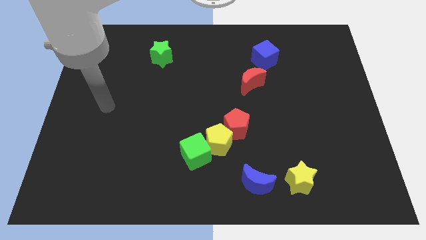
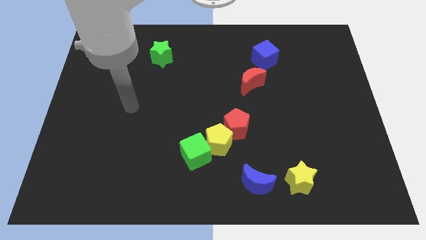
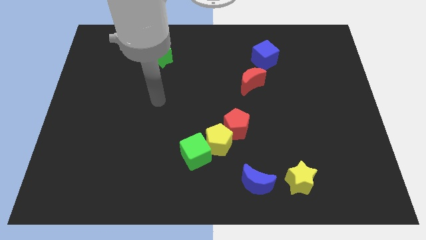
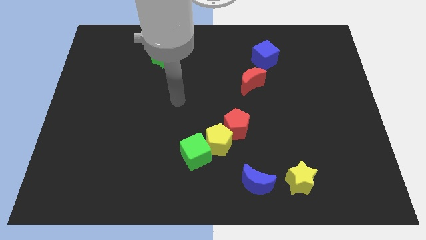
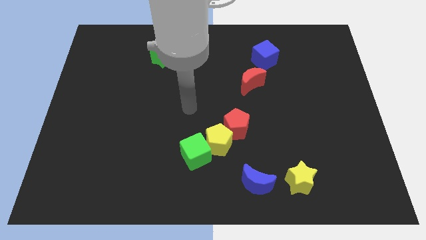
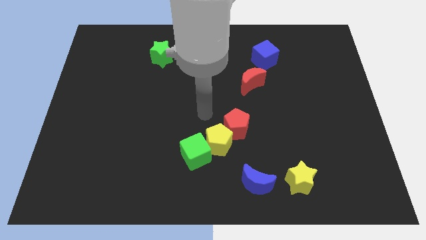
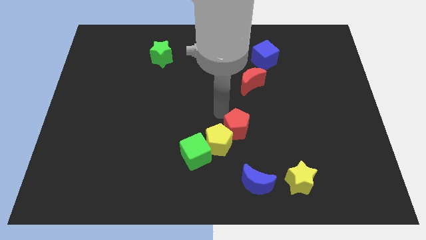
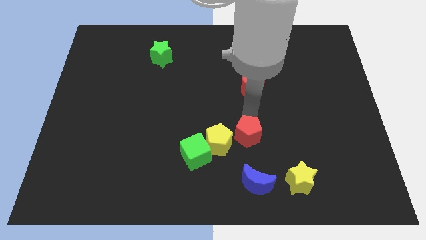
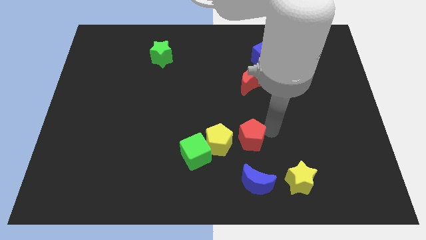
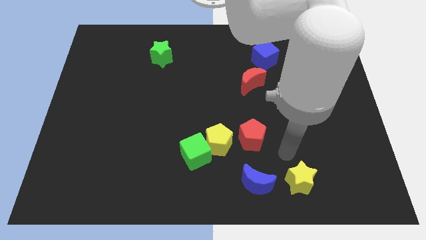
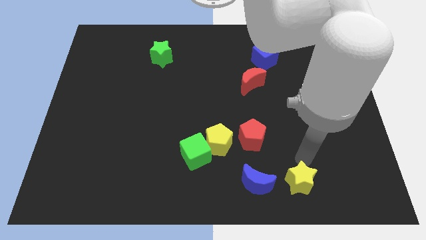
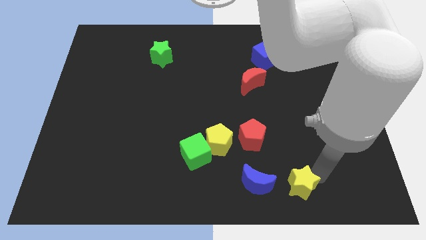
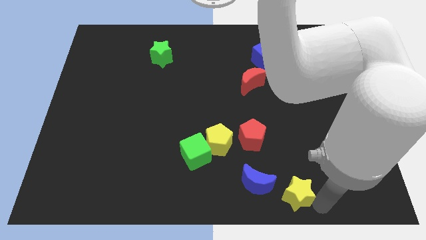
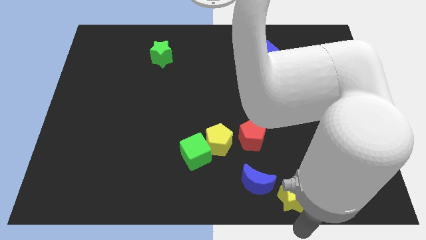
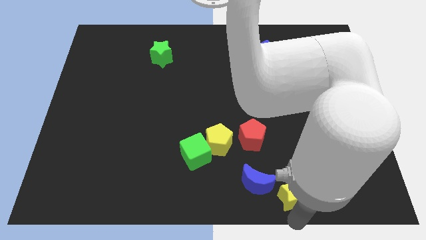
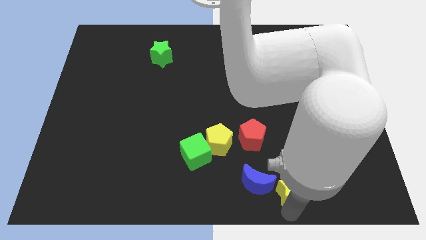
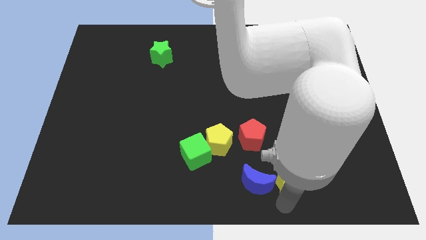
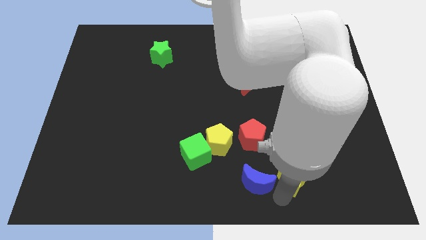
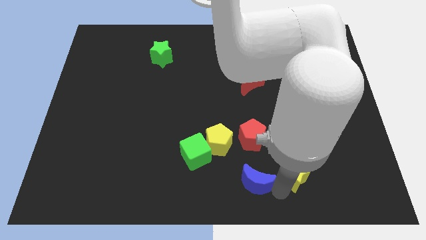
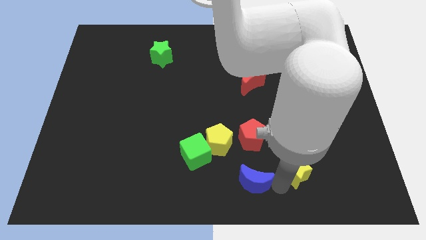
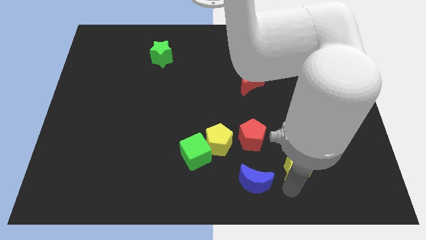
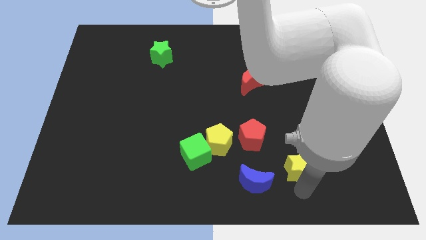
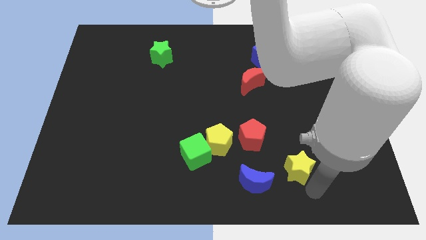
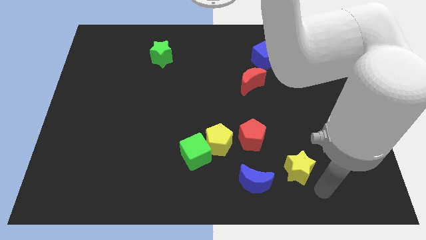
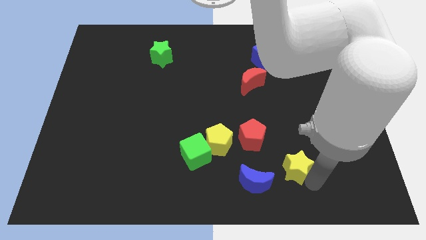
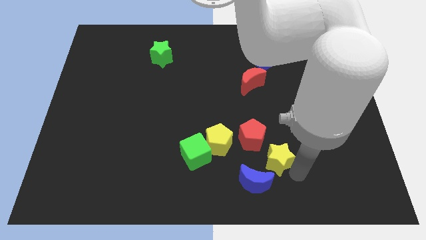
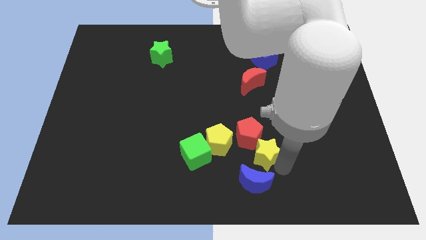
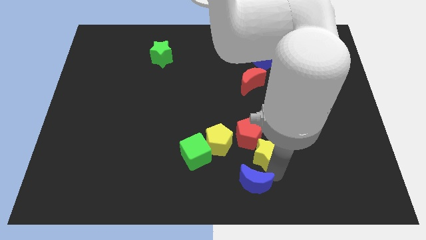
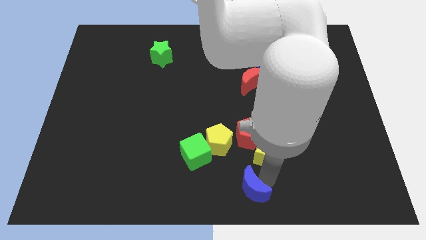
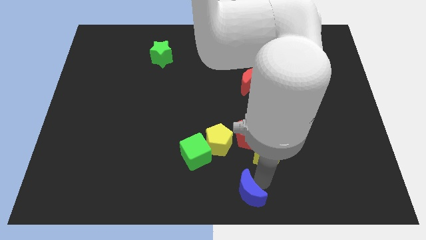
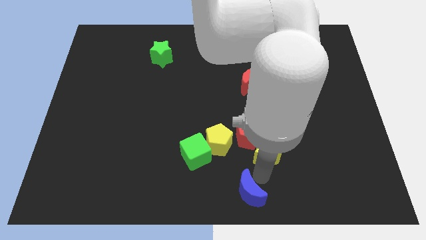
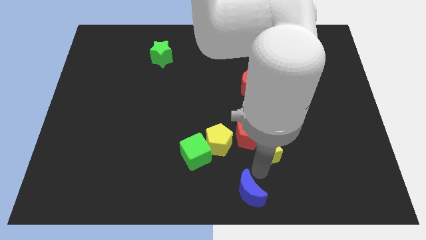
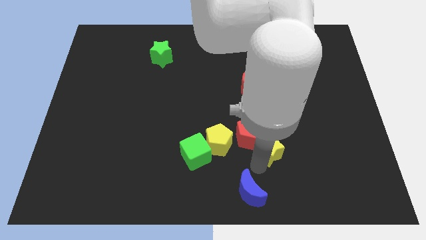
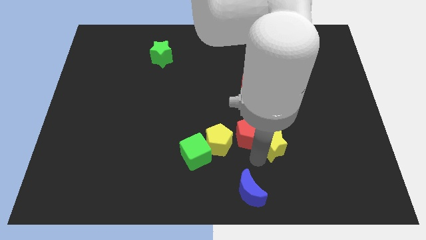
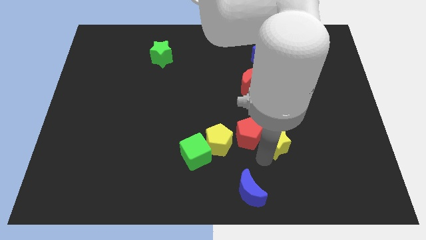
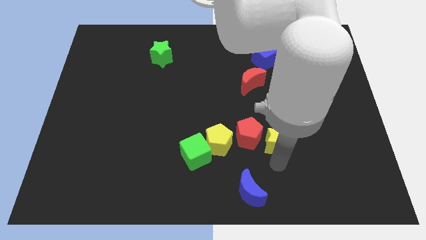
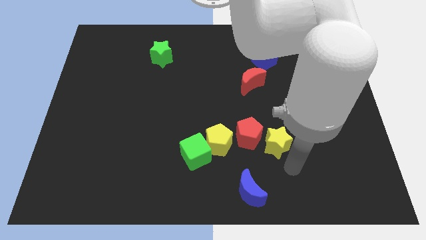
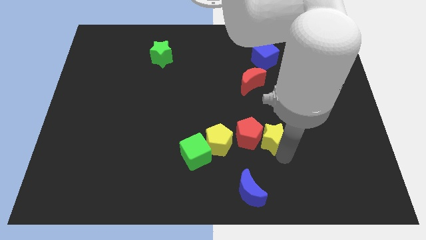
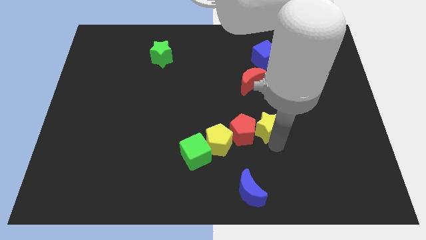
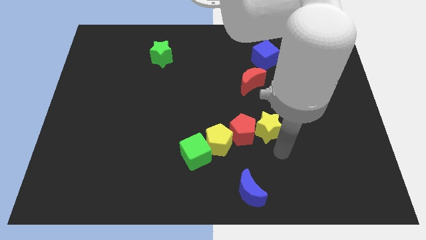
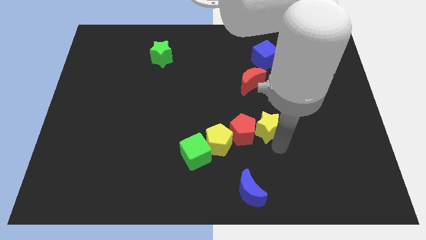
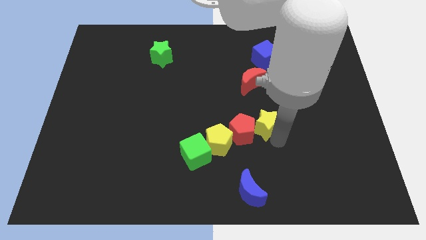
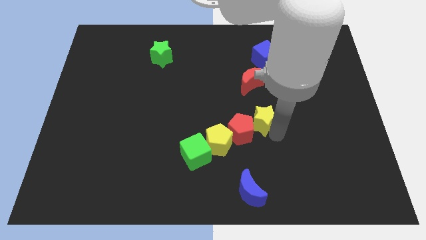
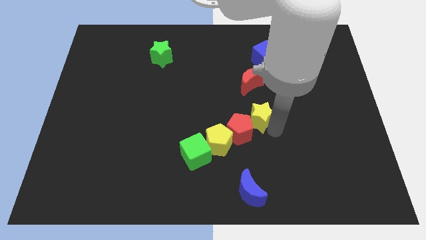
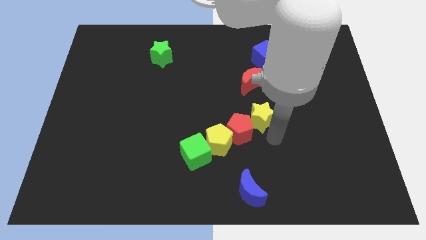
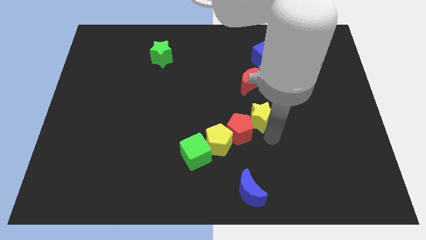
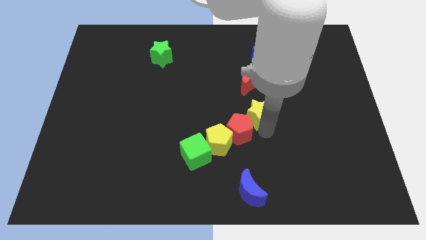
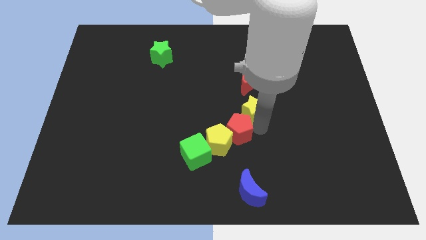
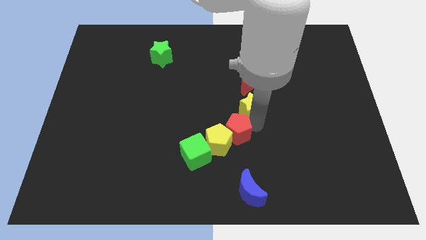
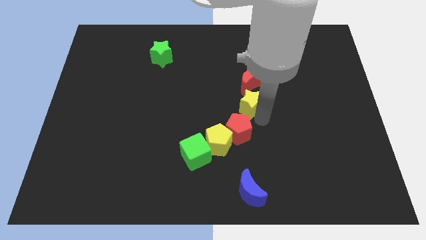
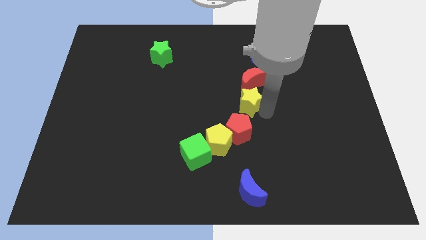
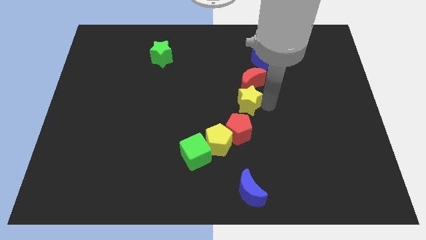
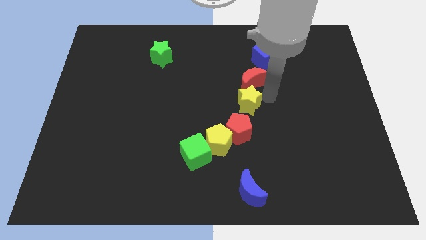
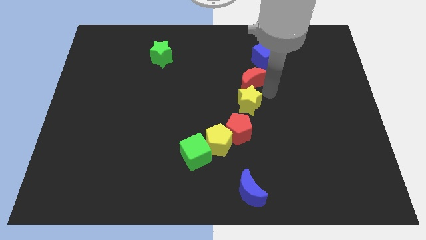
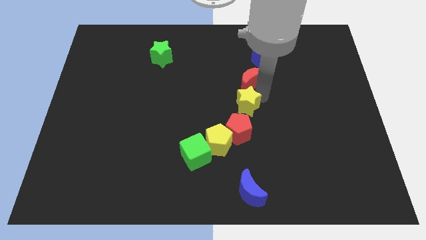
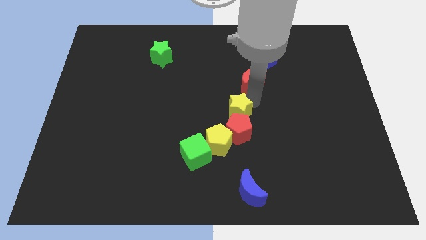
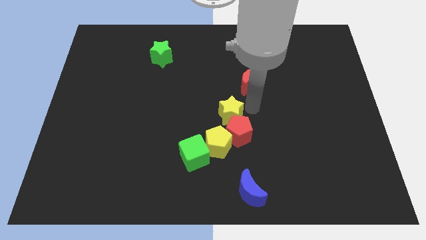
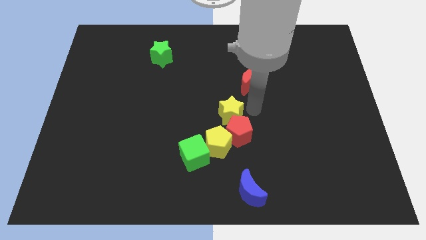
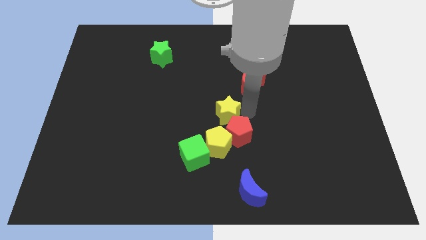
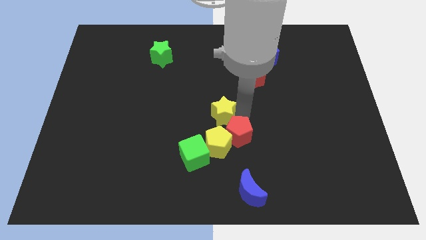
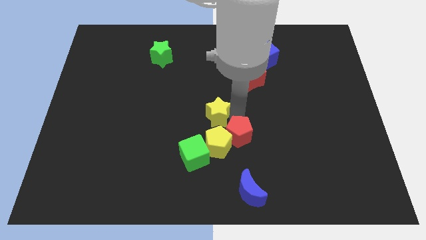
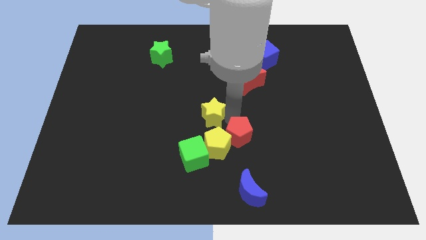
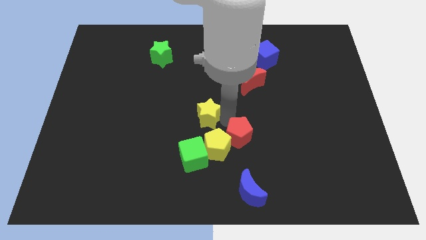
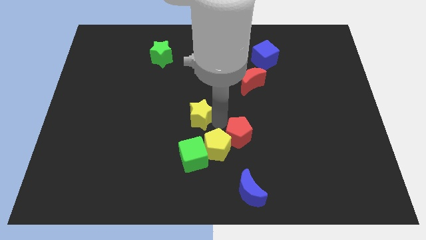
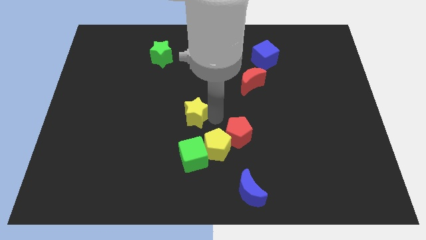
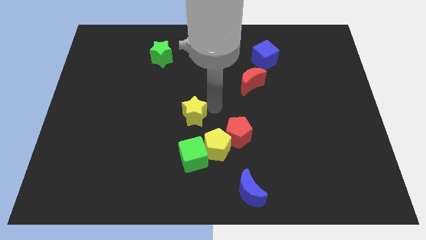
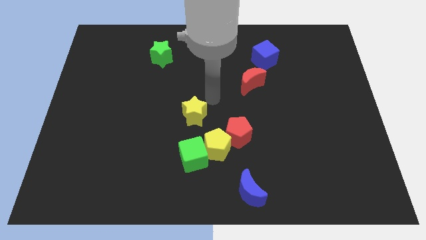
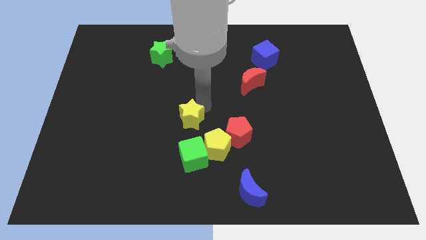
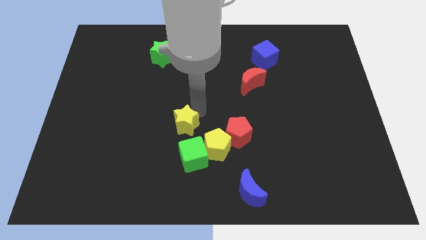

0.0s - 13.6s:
push the yellow star to the top left of the green cube
